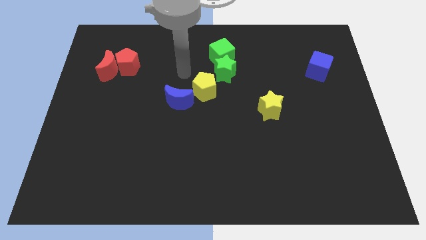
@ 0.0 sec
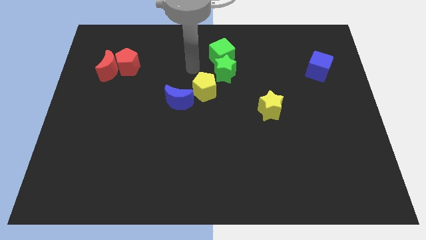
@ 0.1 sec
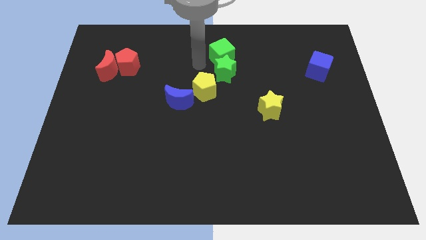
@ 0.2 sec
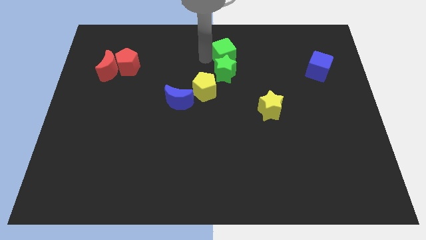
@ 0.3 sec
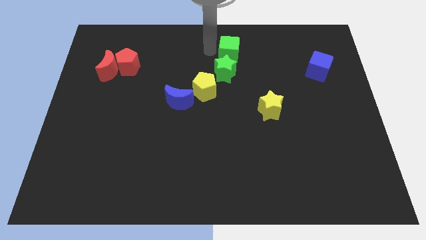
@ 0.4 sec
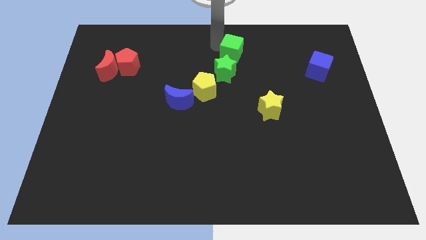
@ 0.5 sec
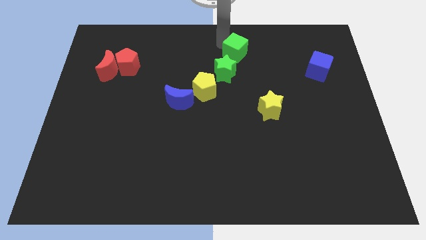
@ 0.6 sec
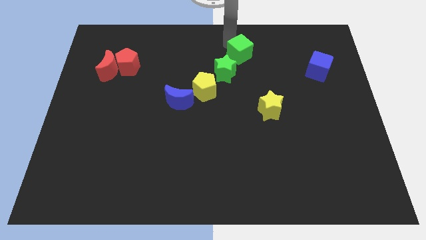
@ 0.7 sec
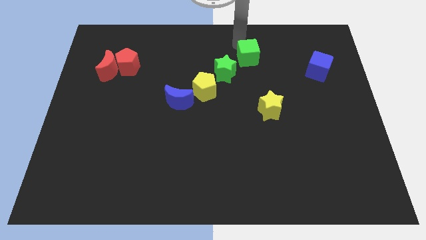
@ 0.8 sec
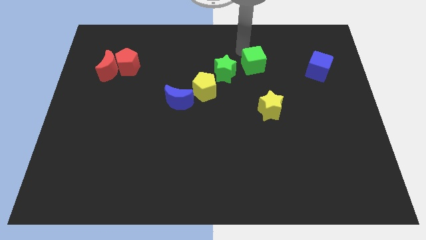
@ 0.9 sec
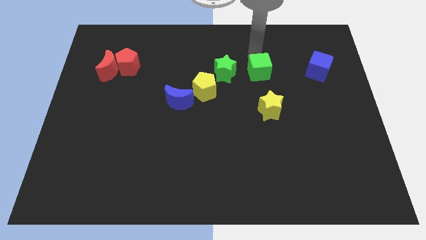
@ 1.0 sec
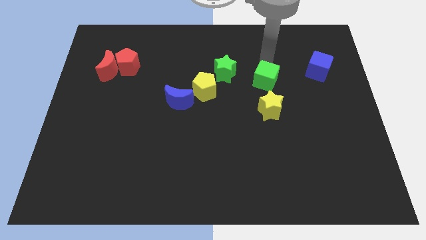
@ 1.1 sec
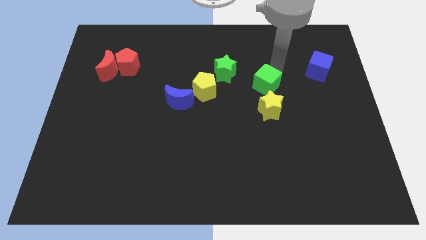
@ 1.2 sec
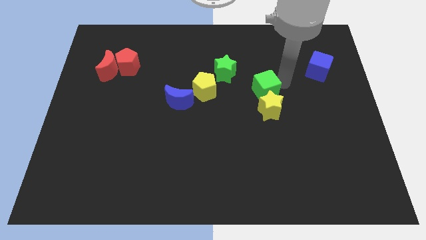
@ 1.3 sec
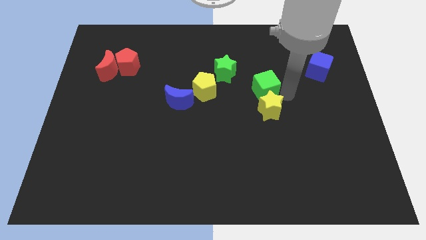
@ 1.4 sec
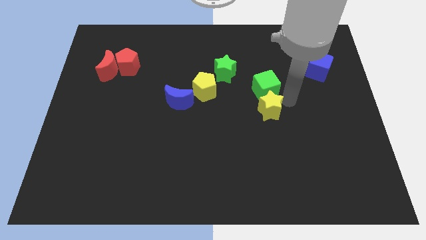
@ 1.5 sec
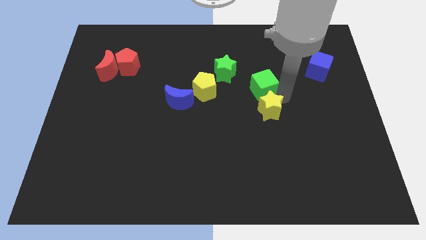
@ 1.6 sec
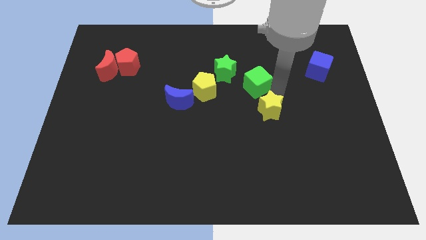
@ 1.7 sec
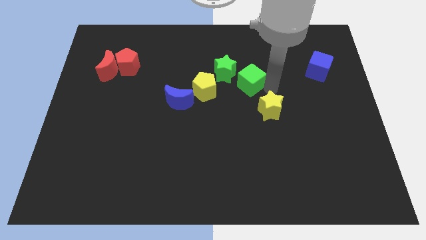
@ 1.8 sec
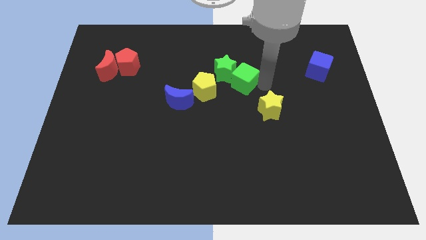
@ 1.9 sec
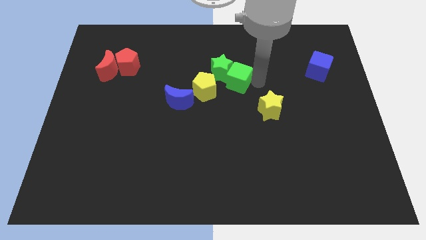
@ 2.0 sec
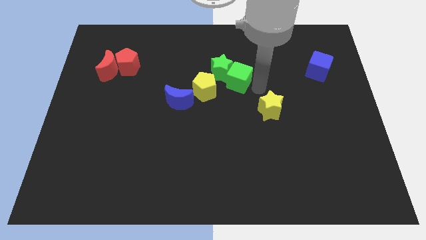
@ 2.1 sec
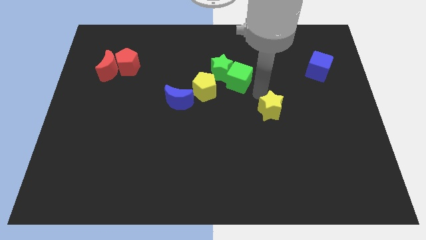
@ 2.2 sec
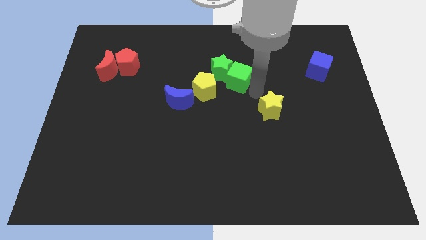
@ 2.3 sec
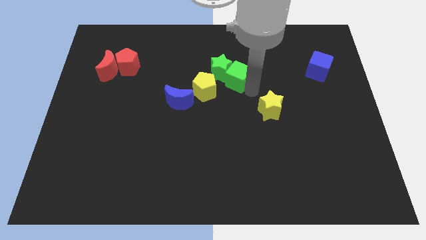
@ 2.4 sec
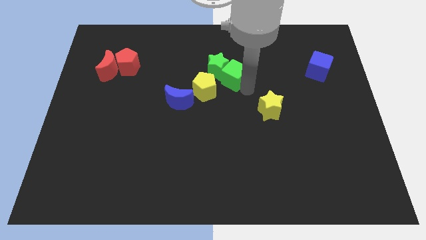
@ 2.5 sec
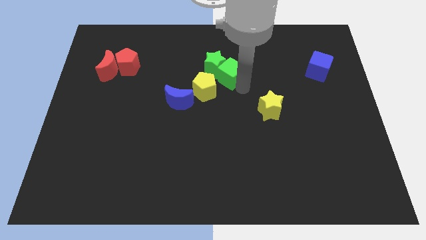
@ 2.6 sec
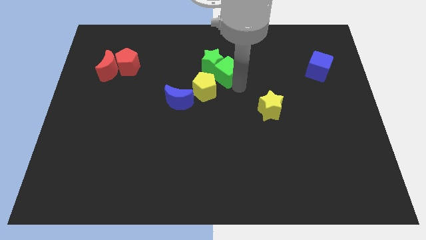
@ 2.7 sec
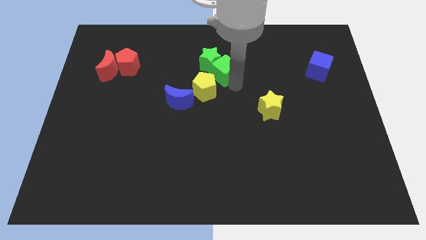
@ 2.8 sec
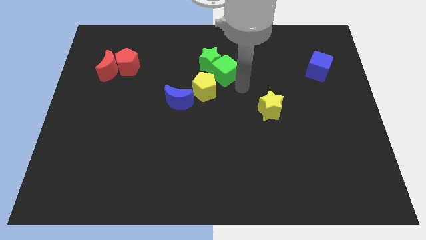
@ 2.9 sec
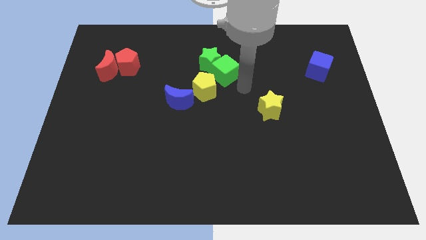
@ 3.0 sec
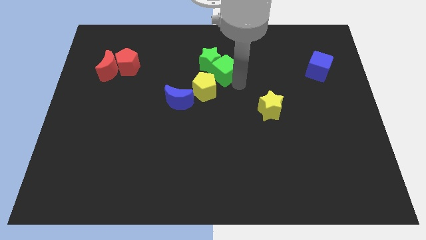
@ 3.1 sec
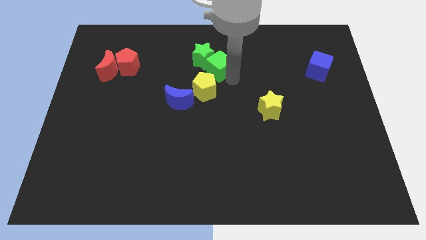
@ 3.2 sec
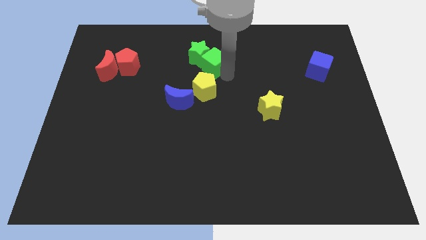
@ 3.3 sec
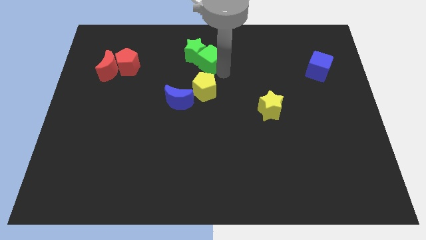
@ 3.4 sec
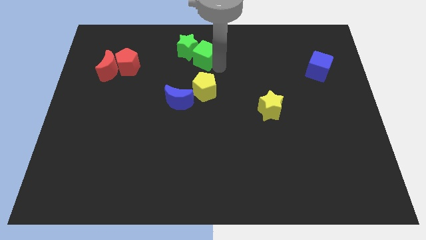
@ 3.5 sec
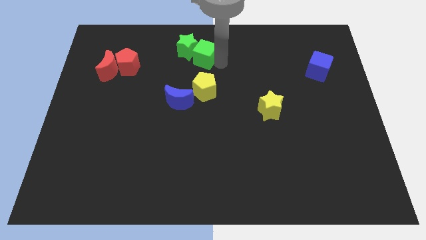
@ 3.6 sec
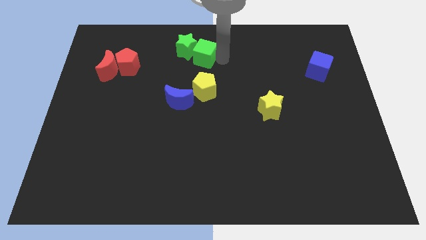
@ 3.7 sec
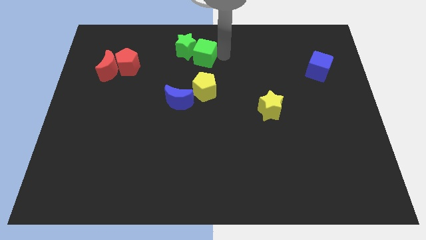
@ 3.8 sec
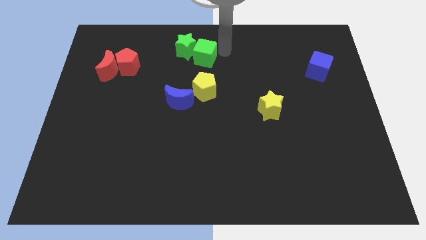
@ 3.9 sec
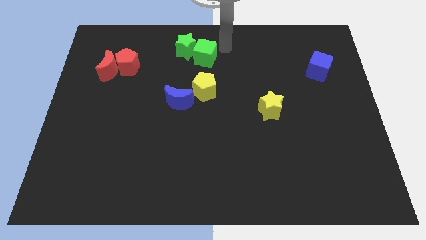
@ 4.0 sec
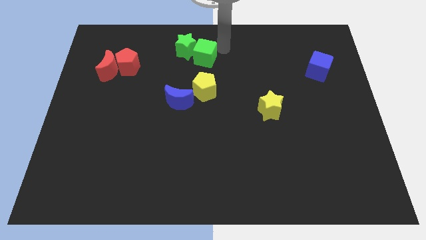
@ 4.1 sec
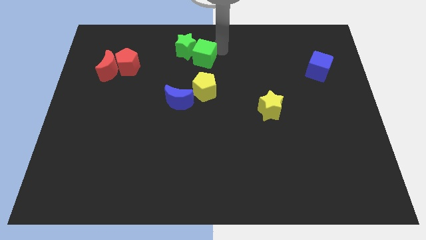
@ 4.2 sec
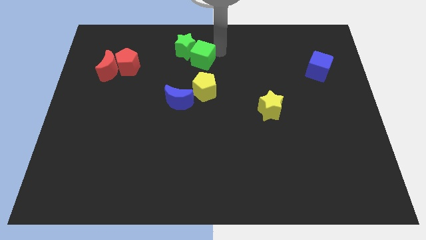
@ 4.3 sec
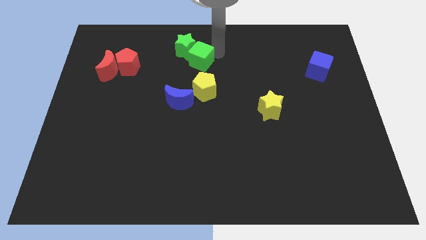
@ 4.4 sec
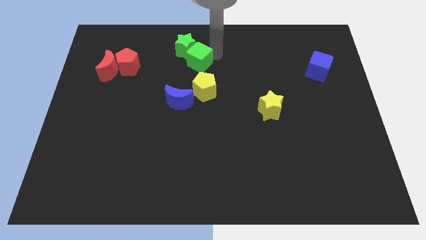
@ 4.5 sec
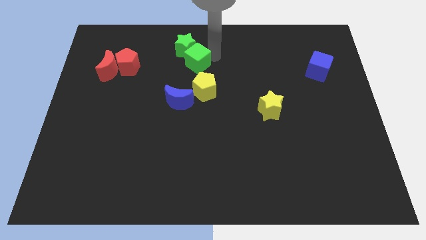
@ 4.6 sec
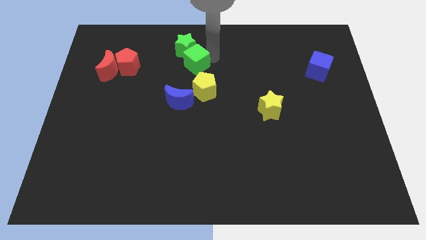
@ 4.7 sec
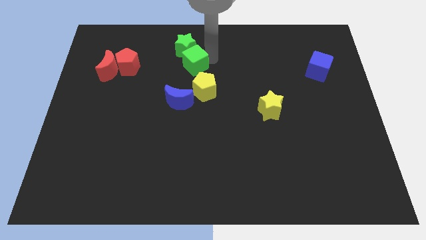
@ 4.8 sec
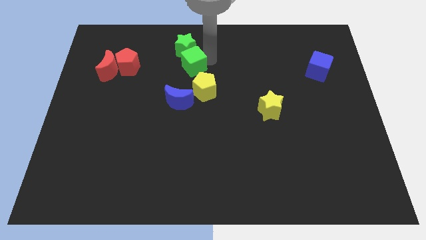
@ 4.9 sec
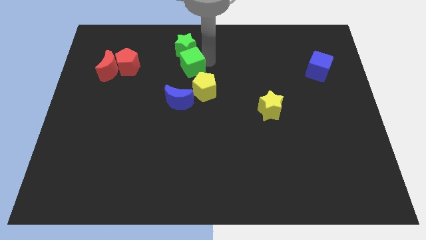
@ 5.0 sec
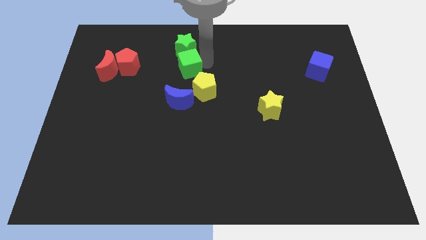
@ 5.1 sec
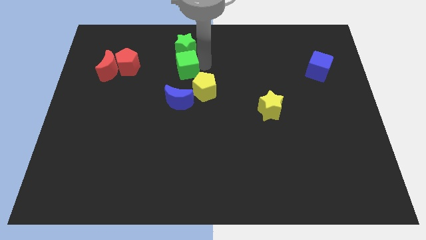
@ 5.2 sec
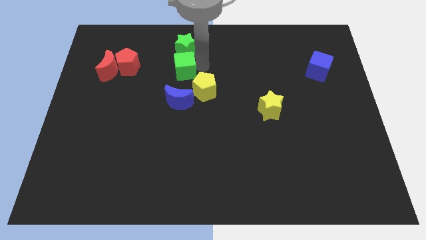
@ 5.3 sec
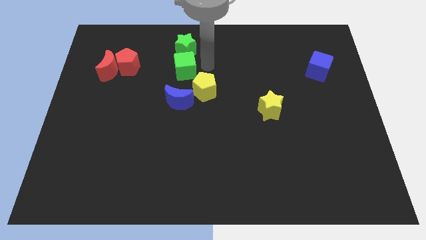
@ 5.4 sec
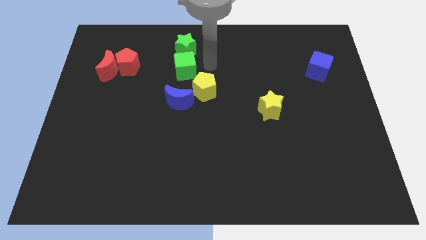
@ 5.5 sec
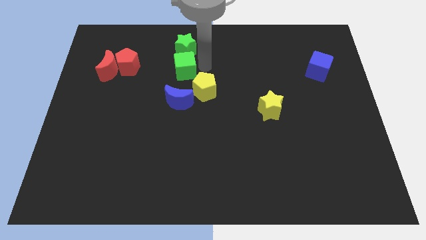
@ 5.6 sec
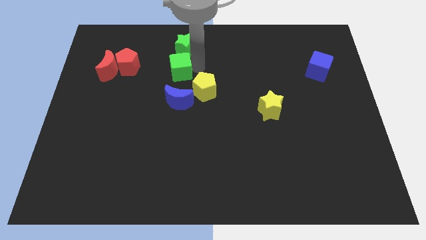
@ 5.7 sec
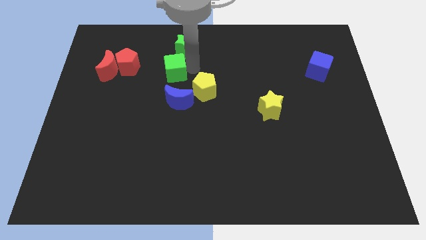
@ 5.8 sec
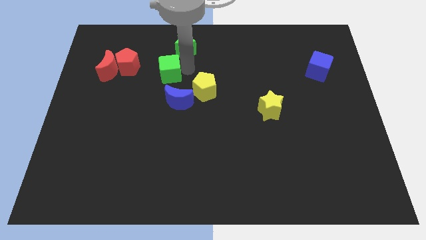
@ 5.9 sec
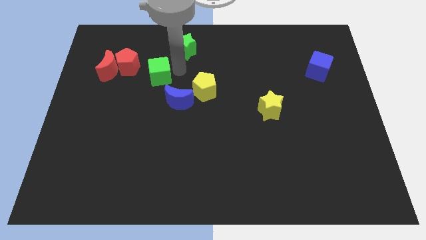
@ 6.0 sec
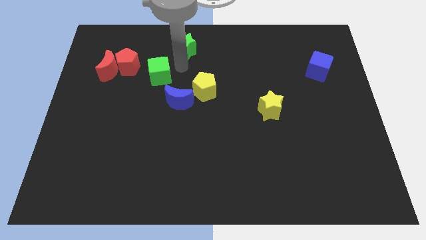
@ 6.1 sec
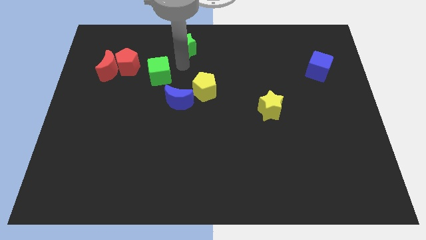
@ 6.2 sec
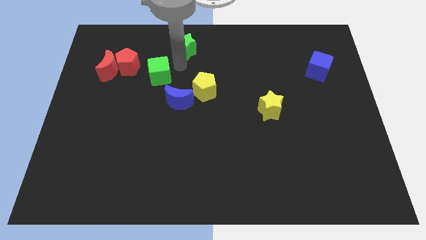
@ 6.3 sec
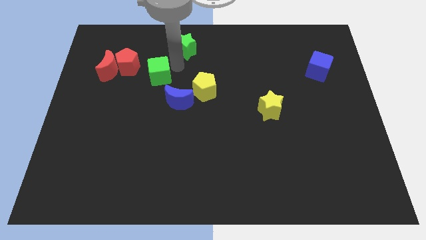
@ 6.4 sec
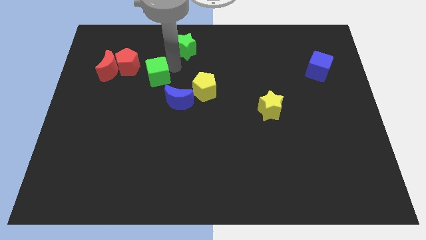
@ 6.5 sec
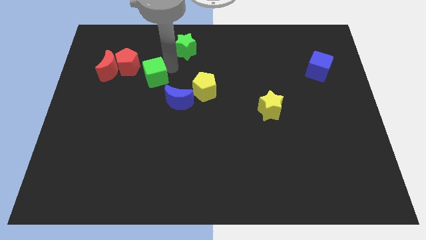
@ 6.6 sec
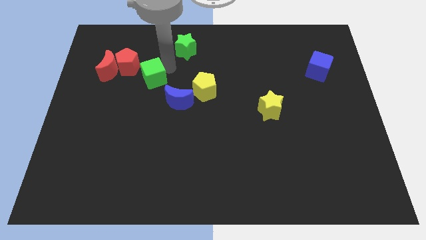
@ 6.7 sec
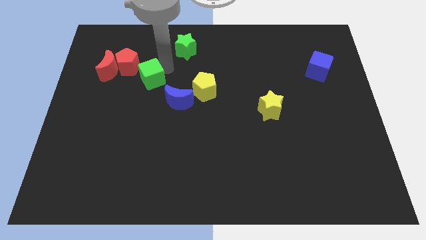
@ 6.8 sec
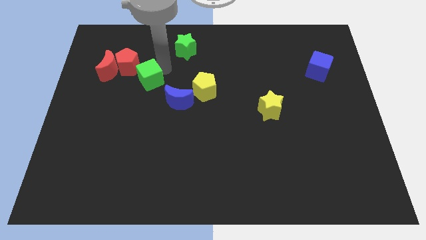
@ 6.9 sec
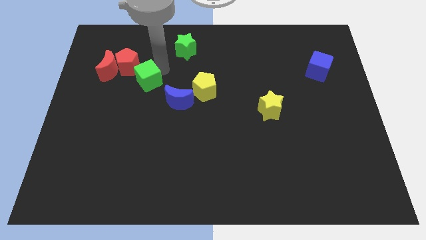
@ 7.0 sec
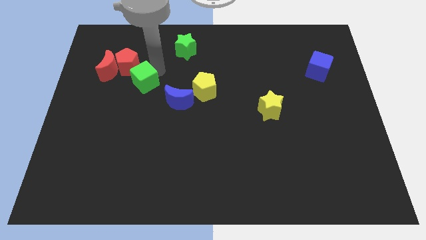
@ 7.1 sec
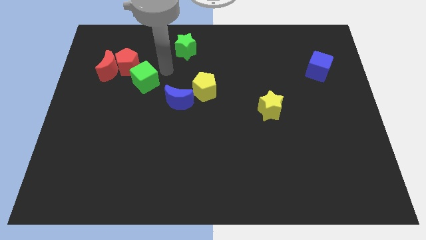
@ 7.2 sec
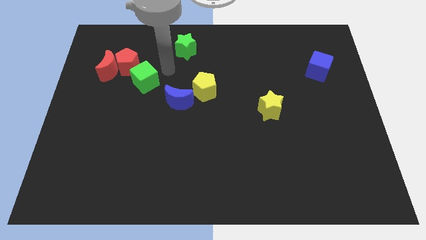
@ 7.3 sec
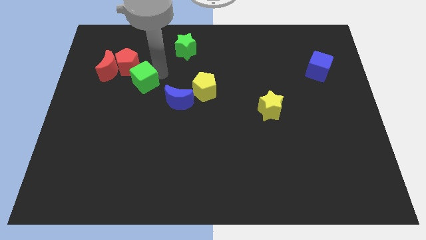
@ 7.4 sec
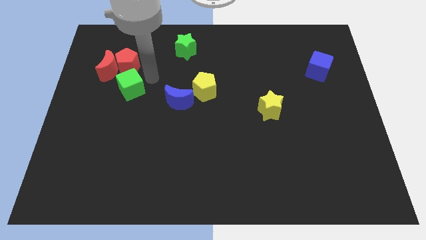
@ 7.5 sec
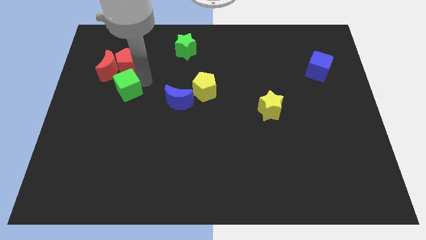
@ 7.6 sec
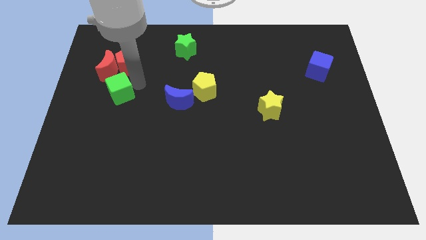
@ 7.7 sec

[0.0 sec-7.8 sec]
move the green cube to the bottom of the red moon
